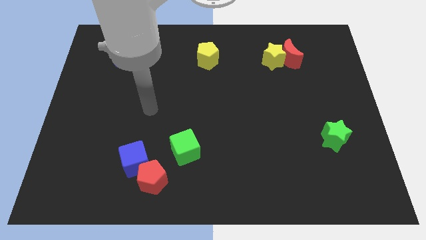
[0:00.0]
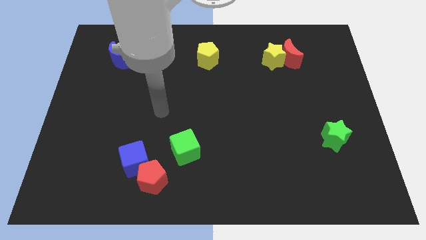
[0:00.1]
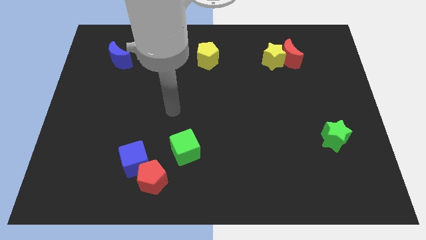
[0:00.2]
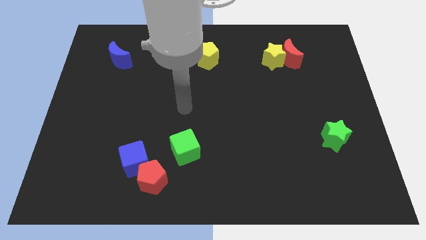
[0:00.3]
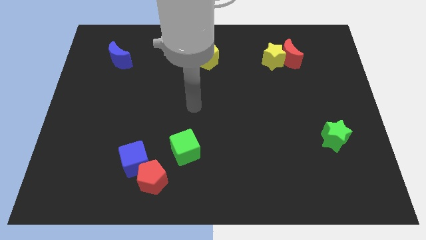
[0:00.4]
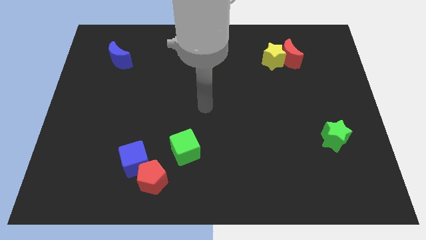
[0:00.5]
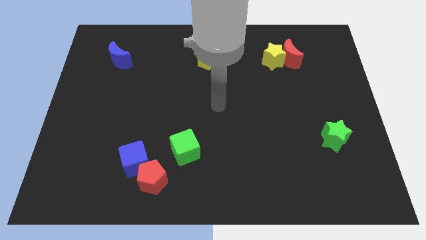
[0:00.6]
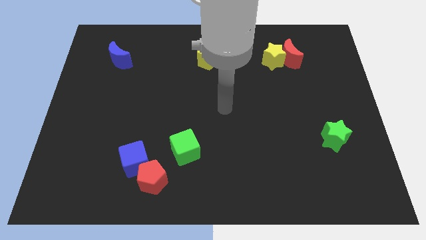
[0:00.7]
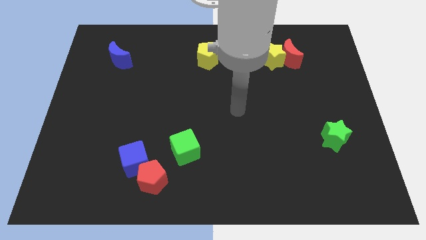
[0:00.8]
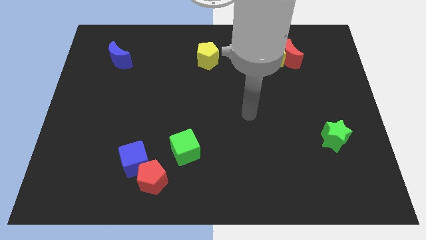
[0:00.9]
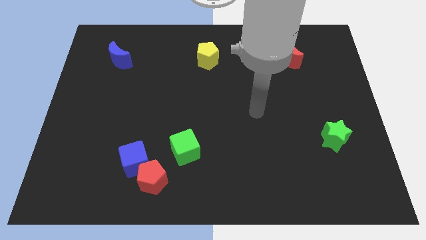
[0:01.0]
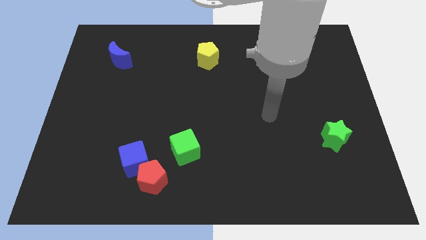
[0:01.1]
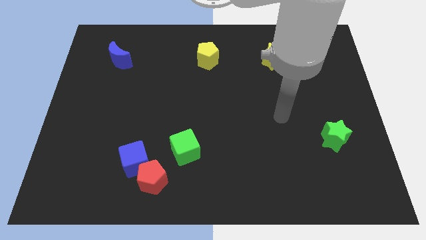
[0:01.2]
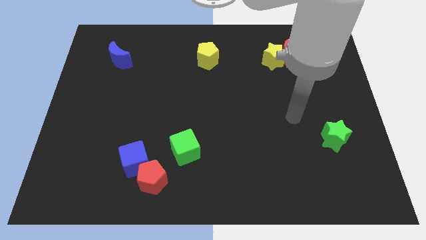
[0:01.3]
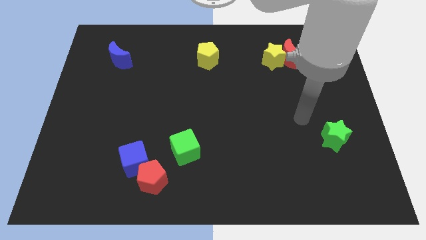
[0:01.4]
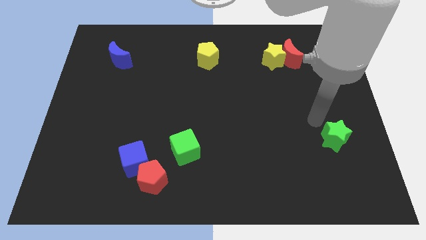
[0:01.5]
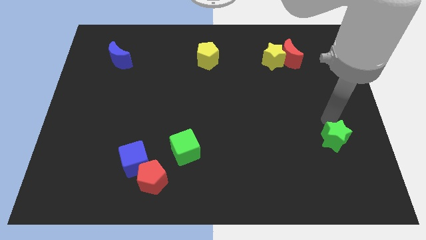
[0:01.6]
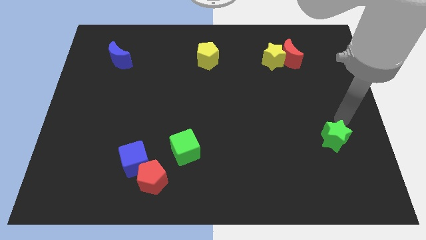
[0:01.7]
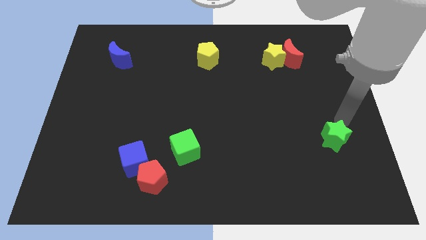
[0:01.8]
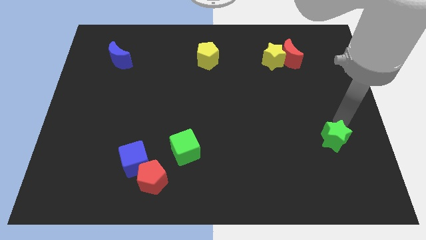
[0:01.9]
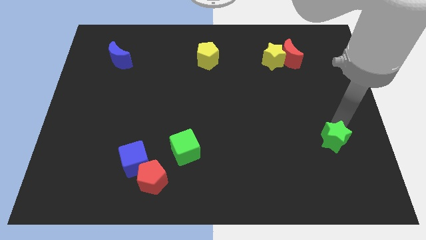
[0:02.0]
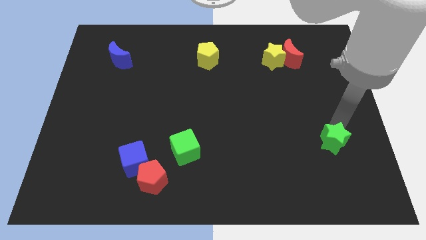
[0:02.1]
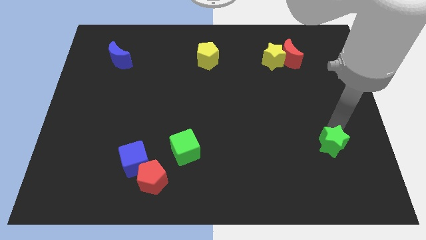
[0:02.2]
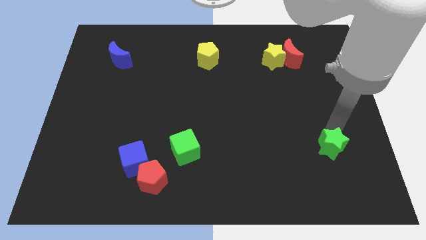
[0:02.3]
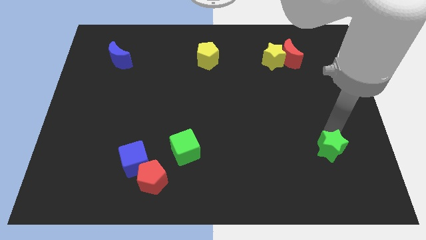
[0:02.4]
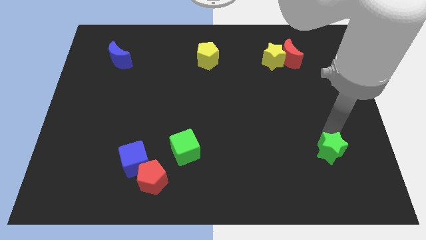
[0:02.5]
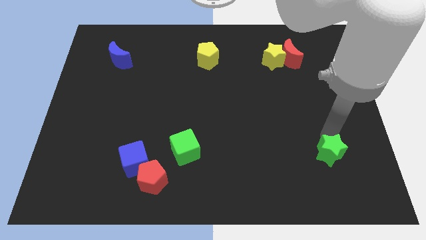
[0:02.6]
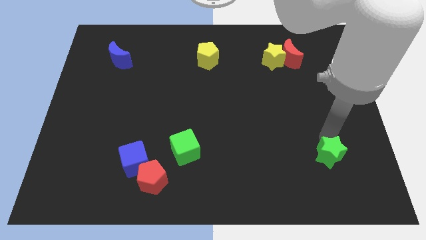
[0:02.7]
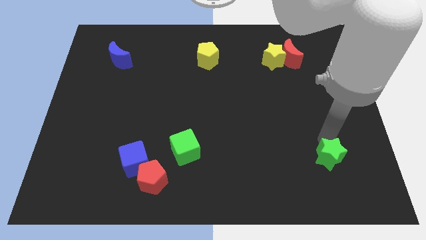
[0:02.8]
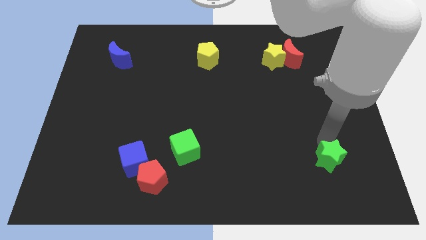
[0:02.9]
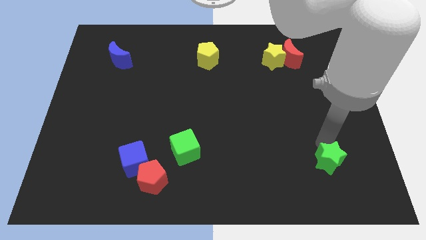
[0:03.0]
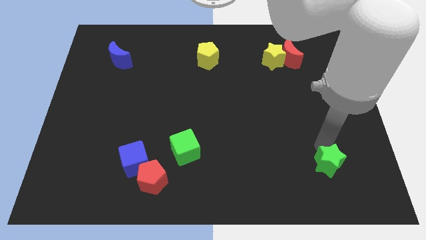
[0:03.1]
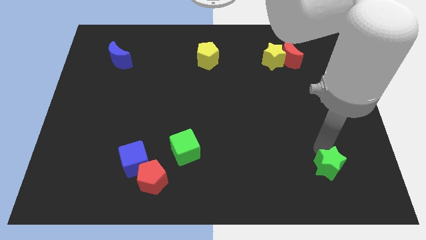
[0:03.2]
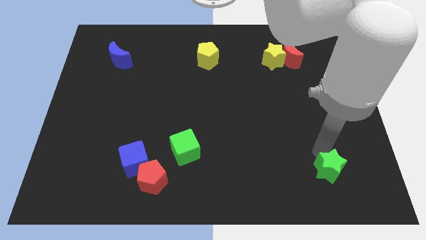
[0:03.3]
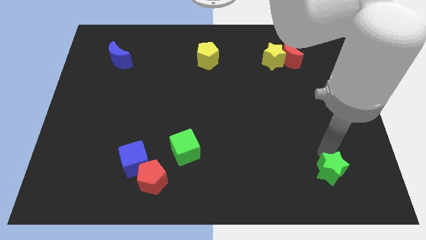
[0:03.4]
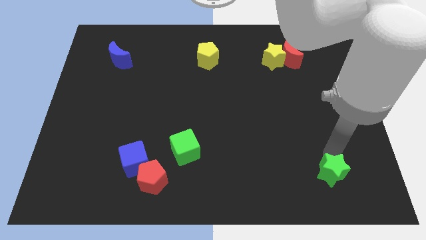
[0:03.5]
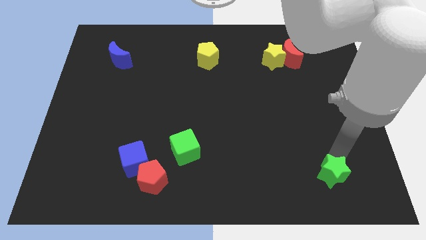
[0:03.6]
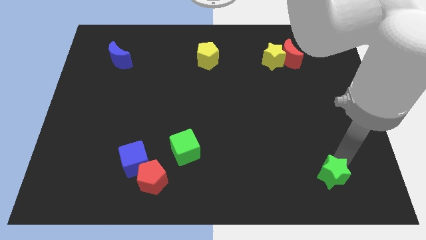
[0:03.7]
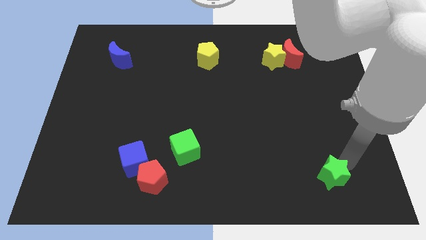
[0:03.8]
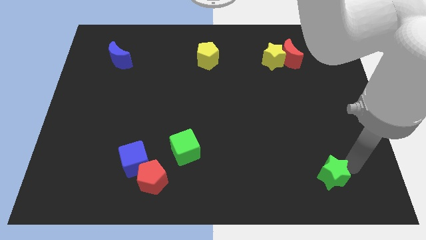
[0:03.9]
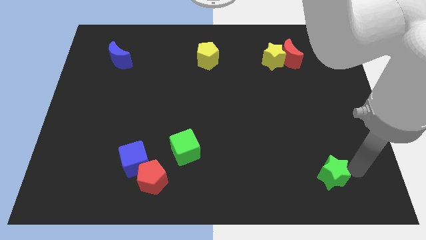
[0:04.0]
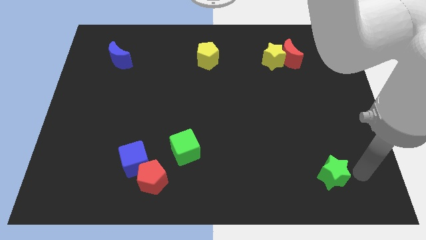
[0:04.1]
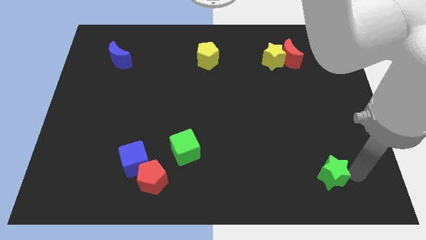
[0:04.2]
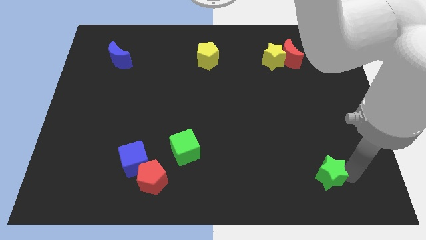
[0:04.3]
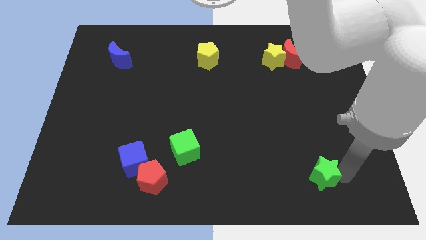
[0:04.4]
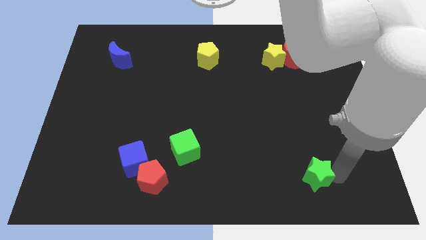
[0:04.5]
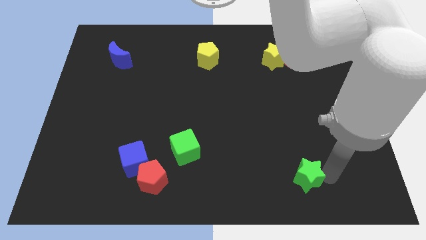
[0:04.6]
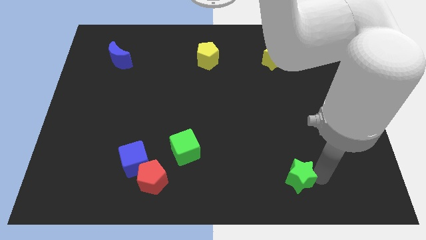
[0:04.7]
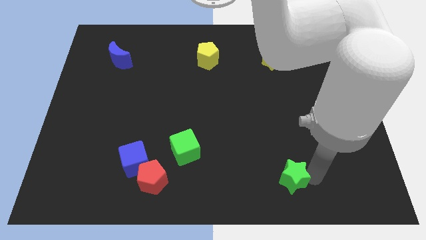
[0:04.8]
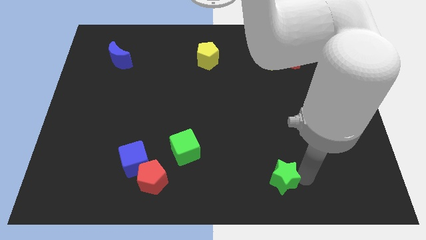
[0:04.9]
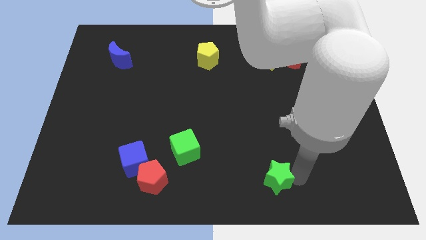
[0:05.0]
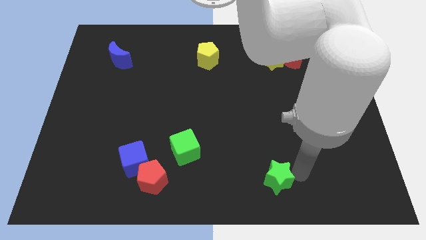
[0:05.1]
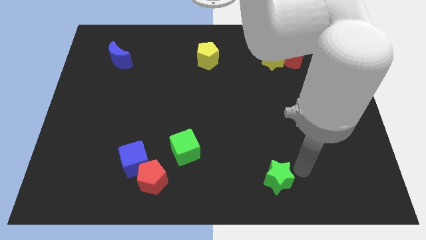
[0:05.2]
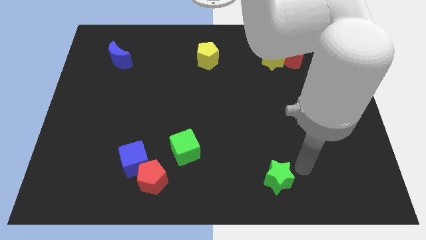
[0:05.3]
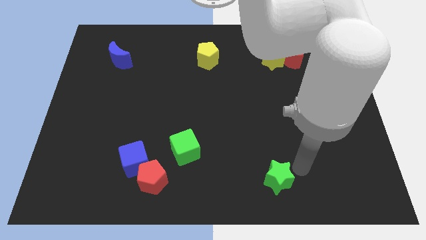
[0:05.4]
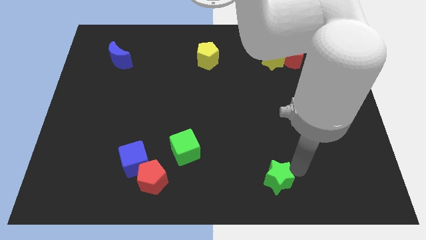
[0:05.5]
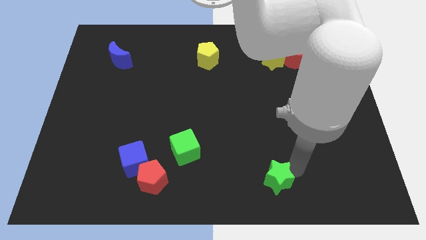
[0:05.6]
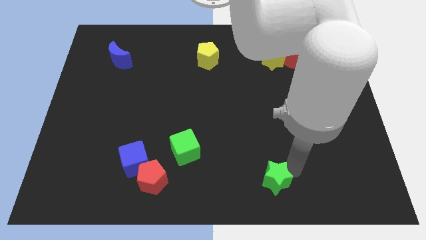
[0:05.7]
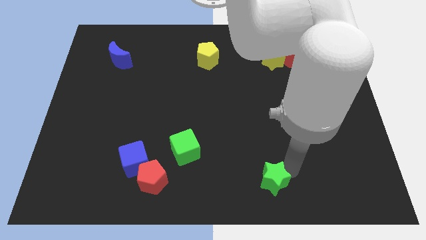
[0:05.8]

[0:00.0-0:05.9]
push the green star to the bottom

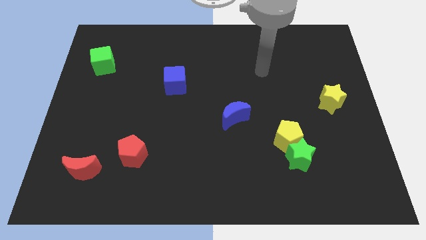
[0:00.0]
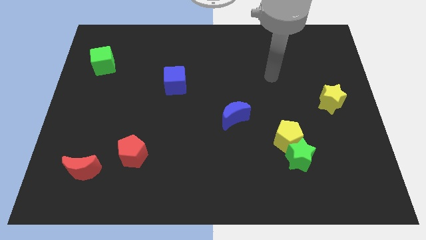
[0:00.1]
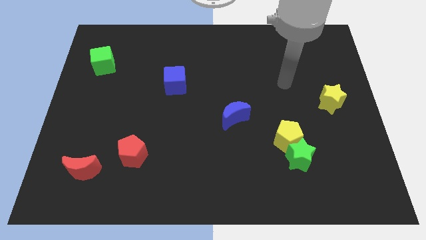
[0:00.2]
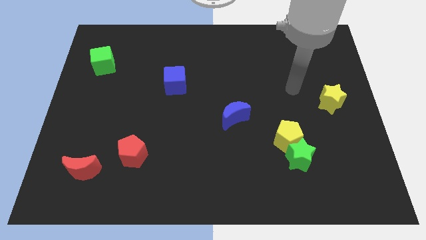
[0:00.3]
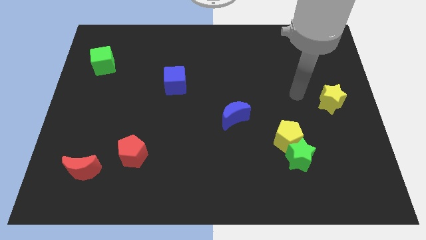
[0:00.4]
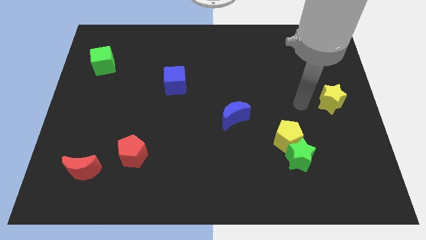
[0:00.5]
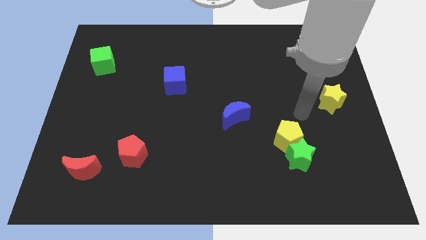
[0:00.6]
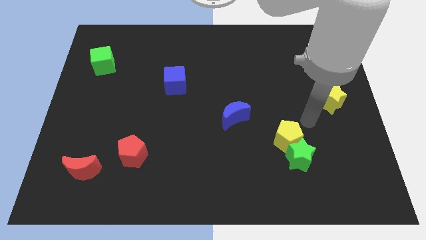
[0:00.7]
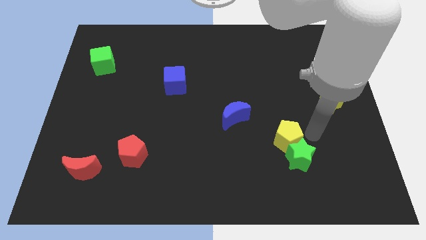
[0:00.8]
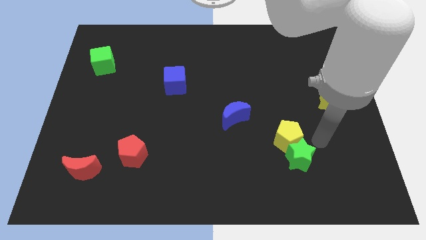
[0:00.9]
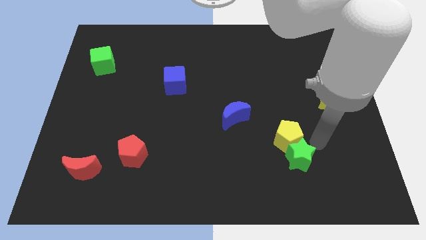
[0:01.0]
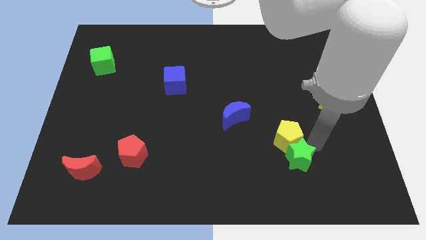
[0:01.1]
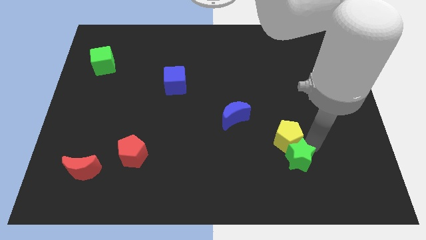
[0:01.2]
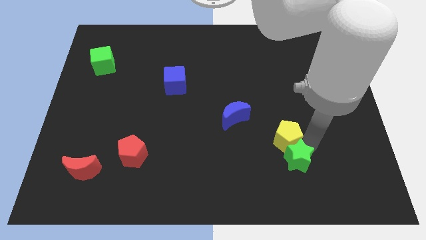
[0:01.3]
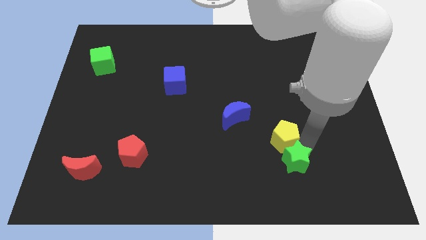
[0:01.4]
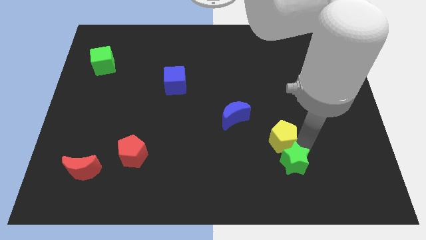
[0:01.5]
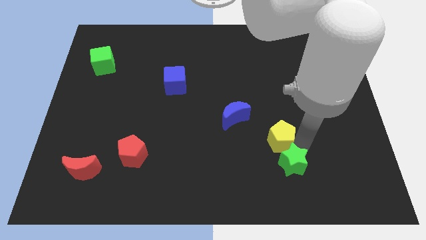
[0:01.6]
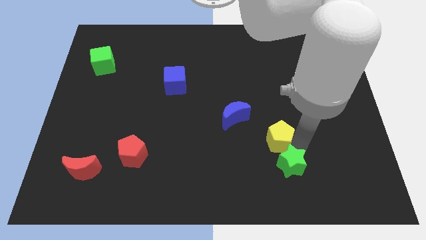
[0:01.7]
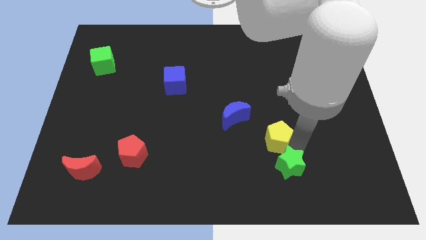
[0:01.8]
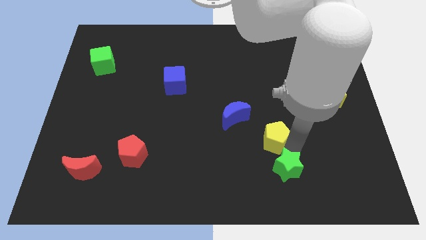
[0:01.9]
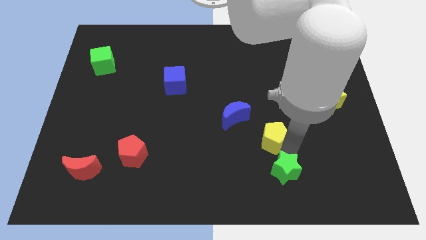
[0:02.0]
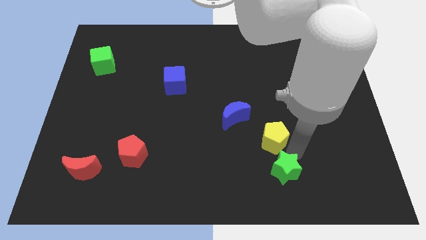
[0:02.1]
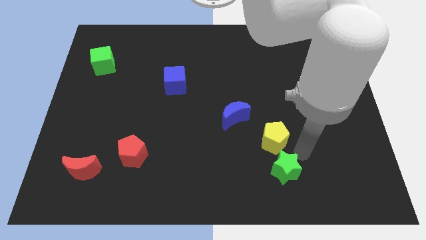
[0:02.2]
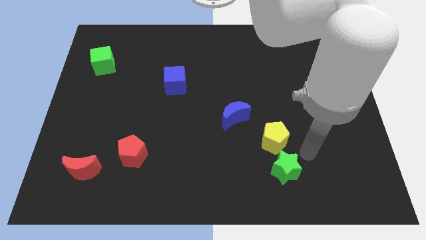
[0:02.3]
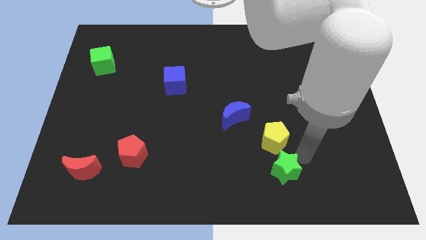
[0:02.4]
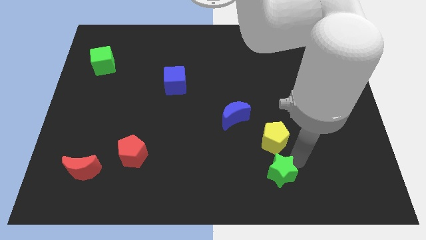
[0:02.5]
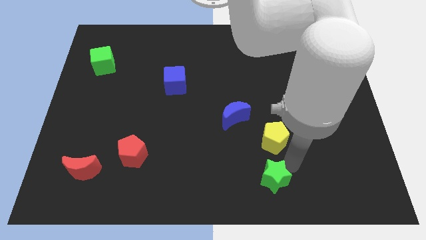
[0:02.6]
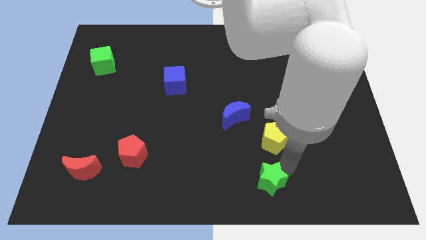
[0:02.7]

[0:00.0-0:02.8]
move the green star to the bottom side
